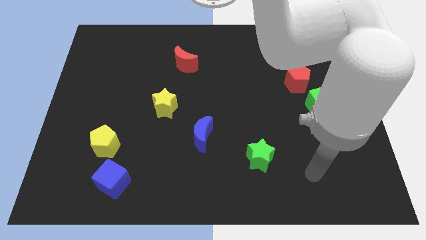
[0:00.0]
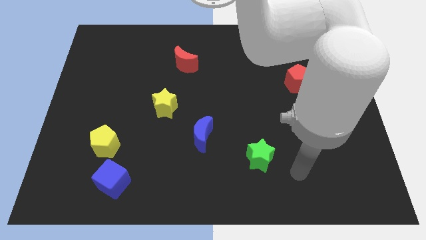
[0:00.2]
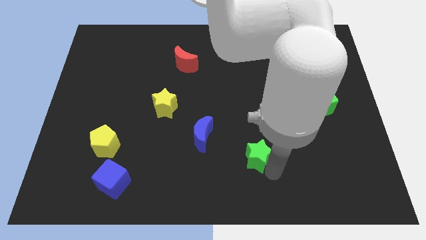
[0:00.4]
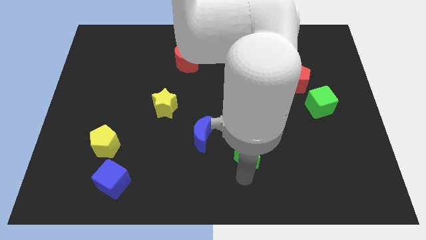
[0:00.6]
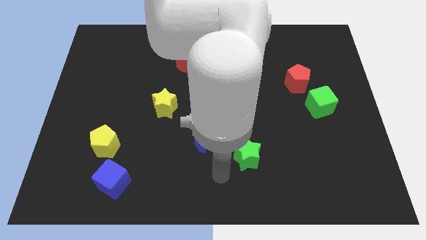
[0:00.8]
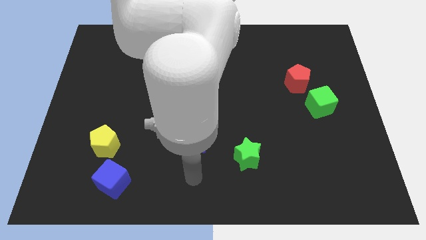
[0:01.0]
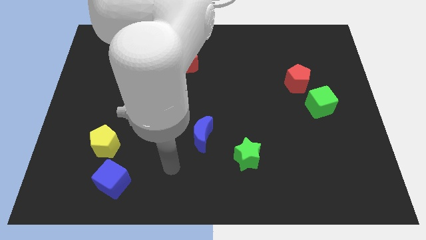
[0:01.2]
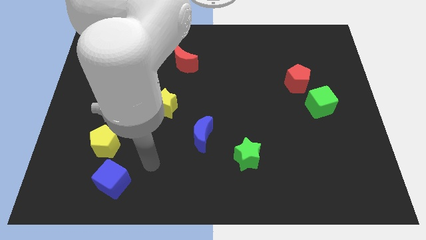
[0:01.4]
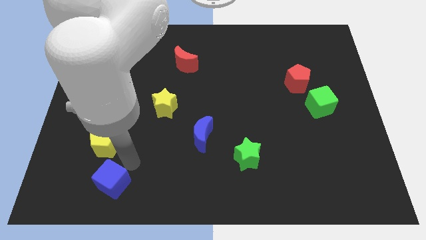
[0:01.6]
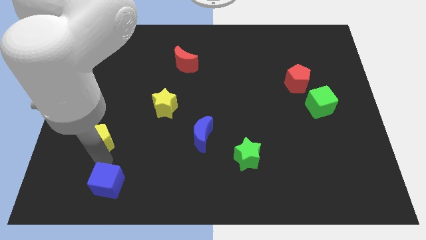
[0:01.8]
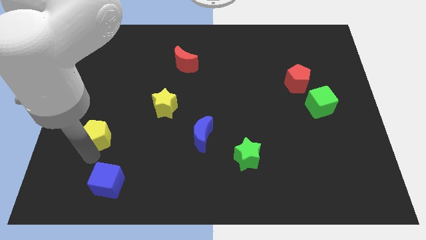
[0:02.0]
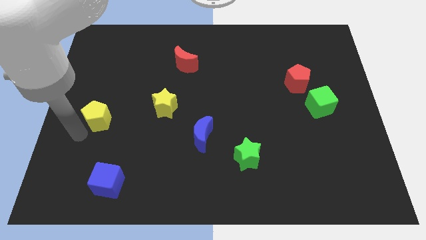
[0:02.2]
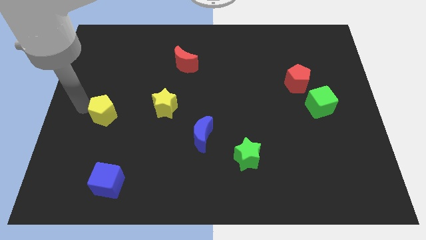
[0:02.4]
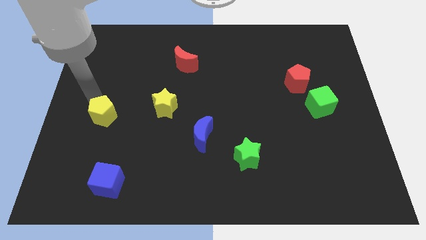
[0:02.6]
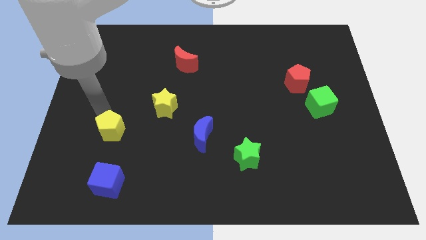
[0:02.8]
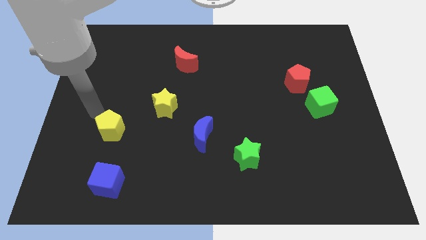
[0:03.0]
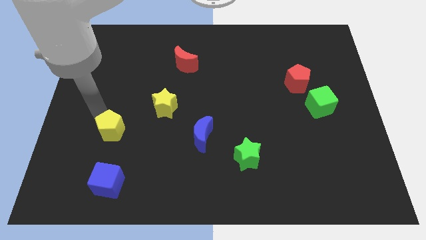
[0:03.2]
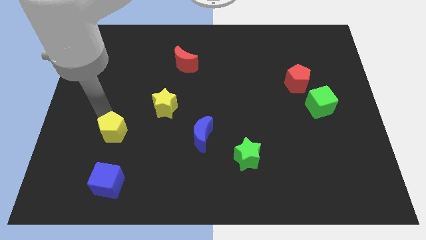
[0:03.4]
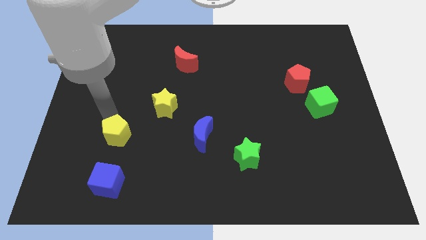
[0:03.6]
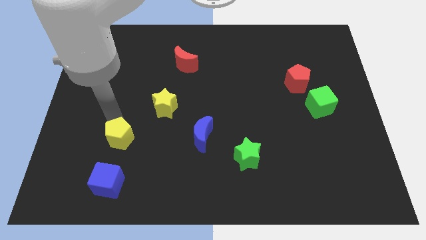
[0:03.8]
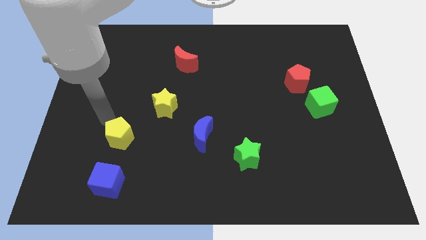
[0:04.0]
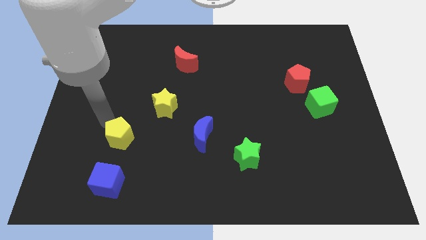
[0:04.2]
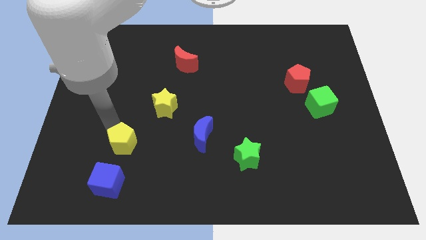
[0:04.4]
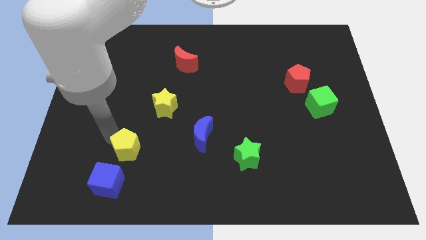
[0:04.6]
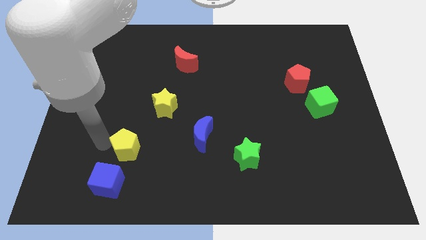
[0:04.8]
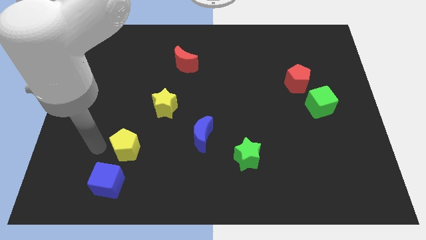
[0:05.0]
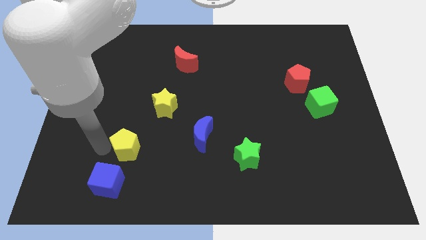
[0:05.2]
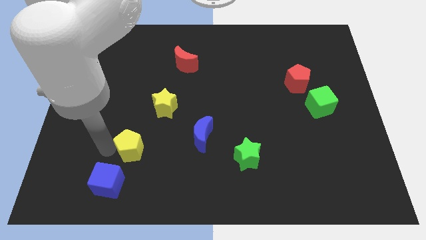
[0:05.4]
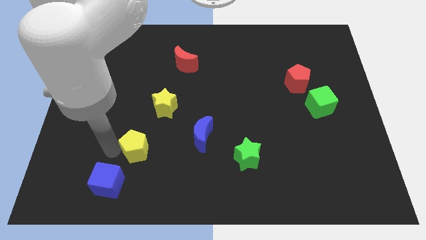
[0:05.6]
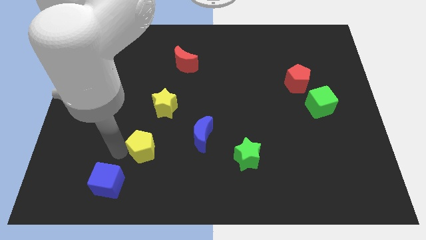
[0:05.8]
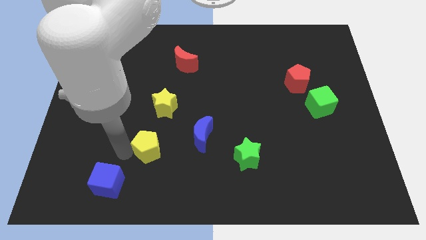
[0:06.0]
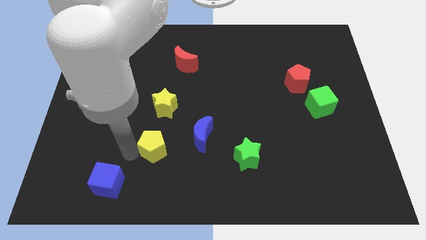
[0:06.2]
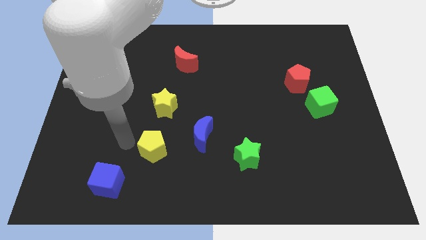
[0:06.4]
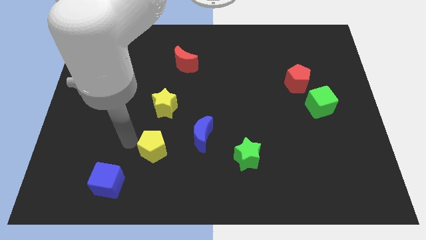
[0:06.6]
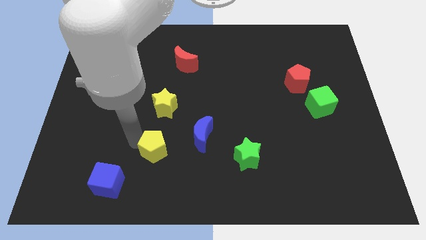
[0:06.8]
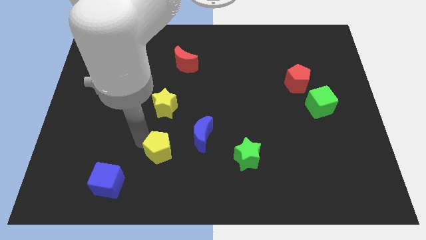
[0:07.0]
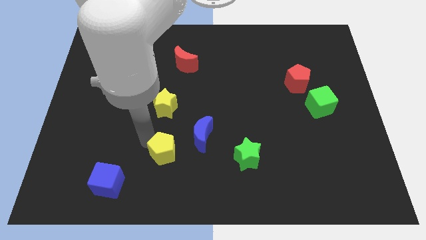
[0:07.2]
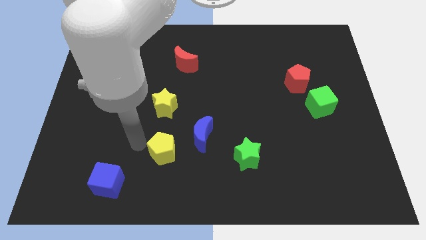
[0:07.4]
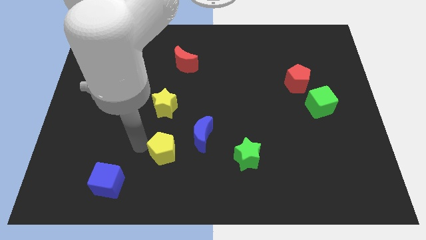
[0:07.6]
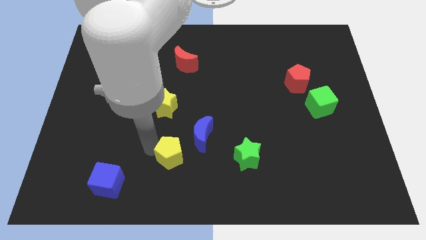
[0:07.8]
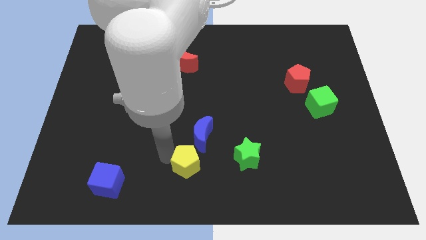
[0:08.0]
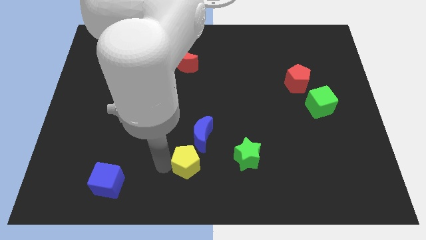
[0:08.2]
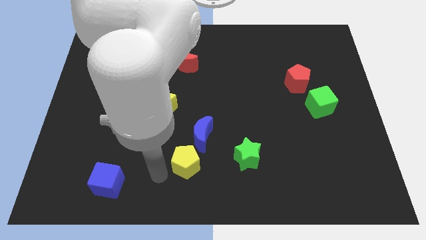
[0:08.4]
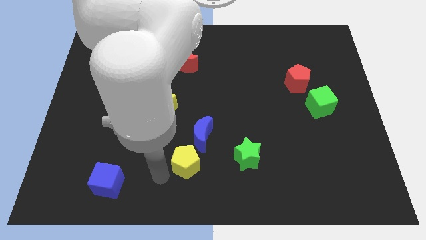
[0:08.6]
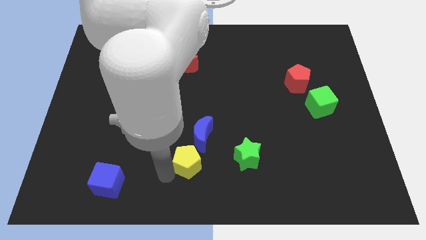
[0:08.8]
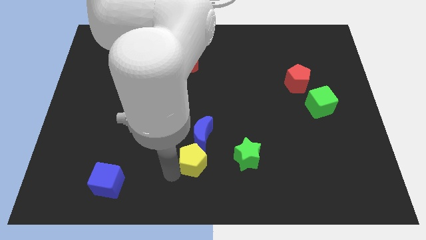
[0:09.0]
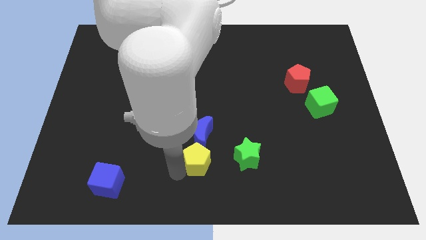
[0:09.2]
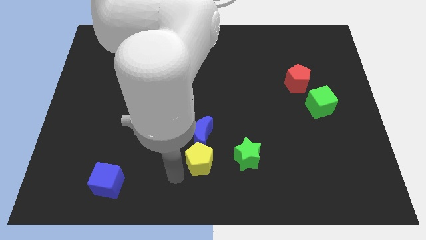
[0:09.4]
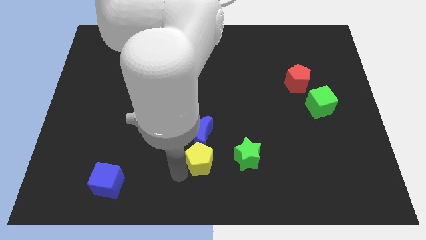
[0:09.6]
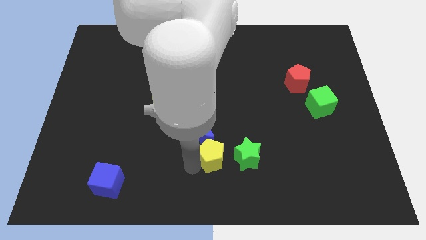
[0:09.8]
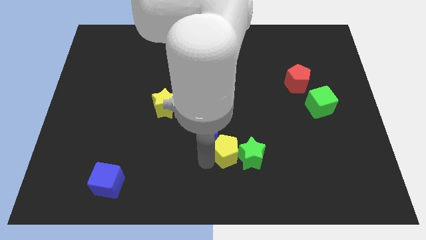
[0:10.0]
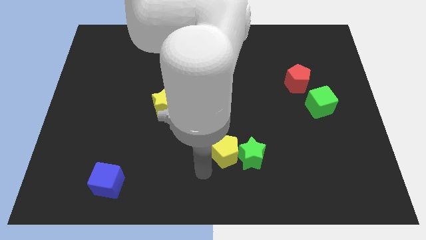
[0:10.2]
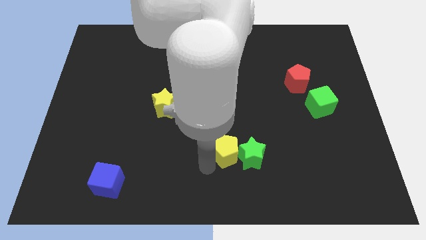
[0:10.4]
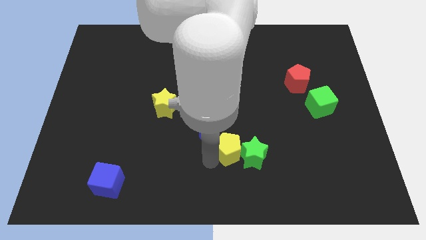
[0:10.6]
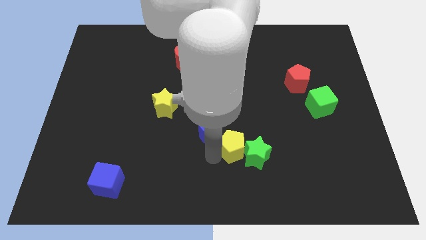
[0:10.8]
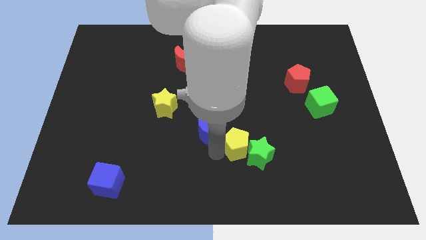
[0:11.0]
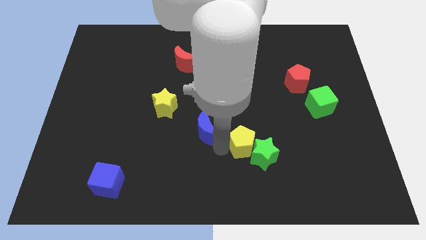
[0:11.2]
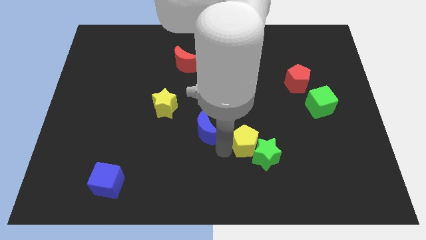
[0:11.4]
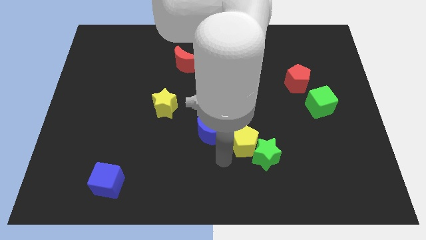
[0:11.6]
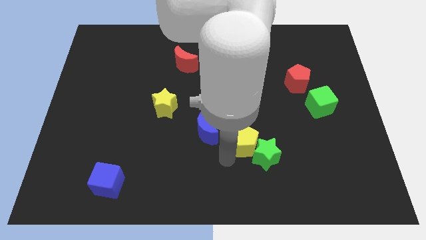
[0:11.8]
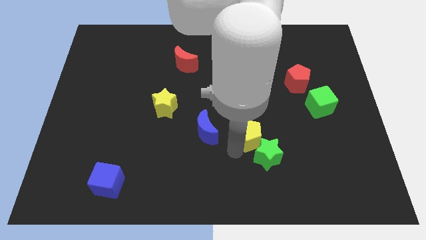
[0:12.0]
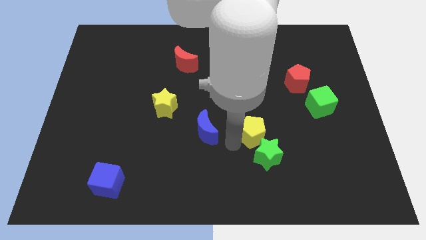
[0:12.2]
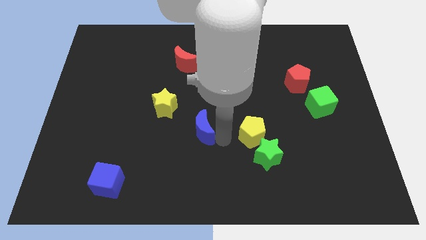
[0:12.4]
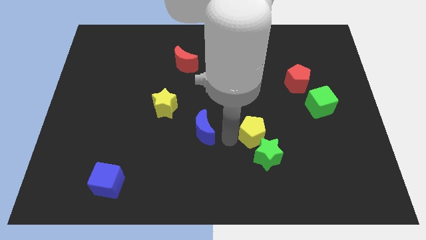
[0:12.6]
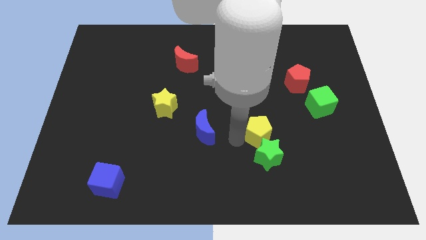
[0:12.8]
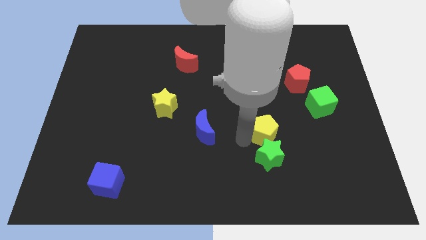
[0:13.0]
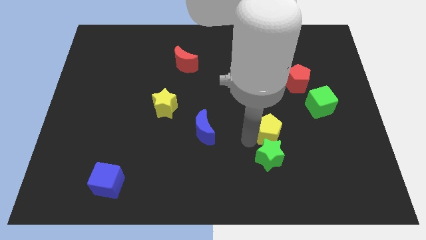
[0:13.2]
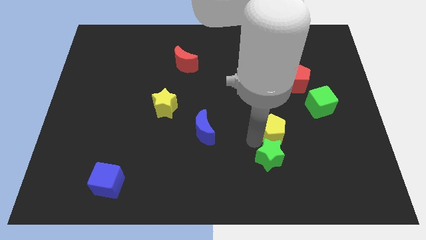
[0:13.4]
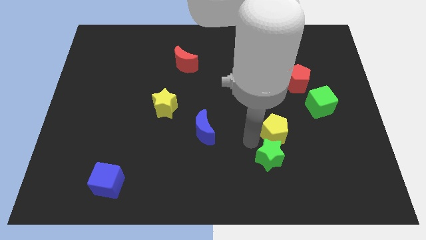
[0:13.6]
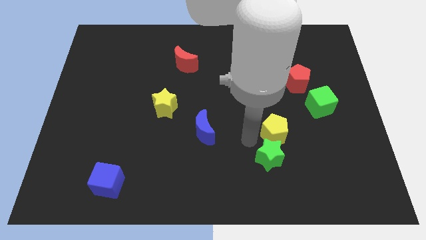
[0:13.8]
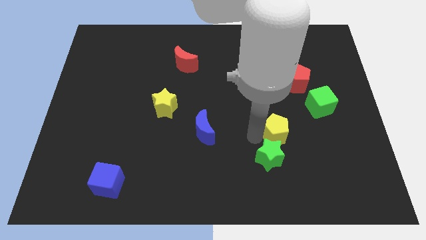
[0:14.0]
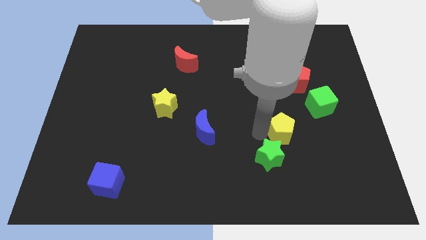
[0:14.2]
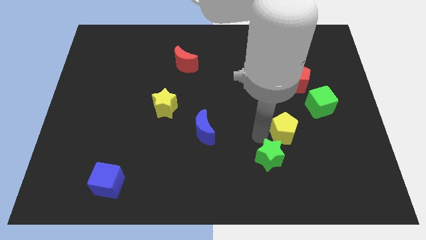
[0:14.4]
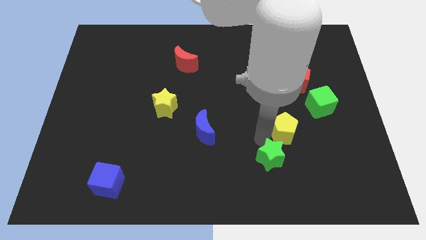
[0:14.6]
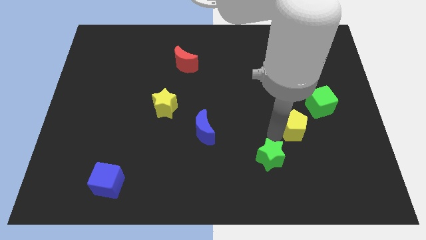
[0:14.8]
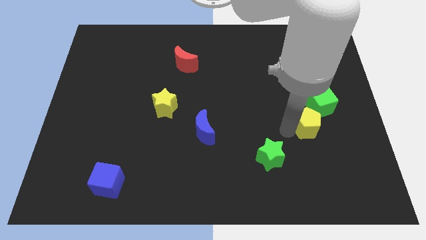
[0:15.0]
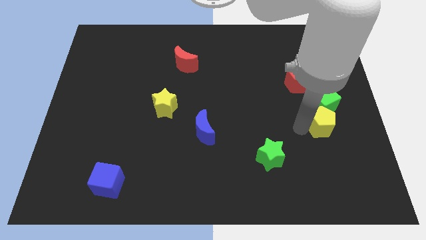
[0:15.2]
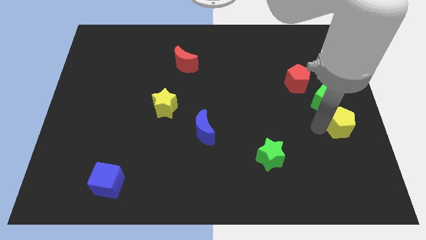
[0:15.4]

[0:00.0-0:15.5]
push the yellow pentagon to the right side
